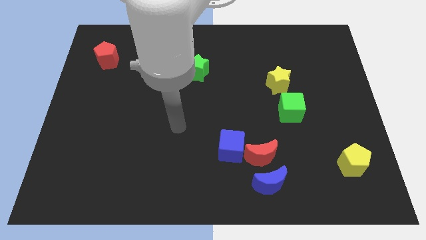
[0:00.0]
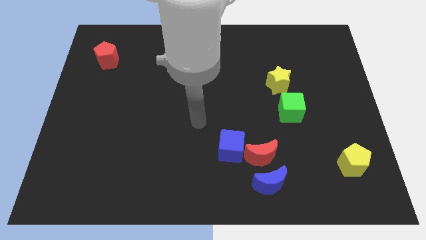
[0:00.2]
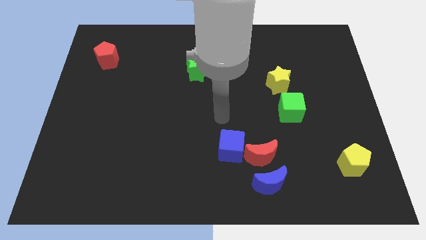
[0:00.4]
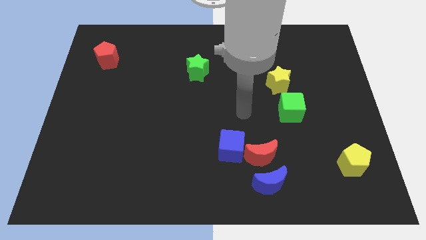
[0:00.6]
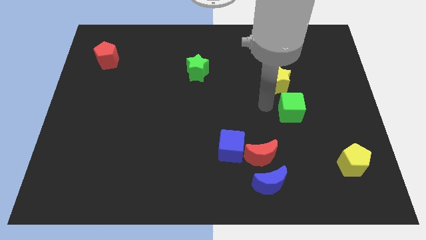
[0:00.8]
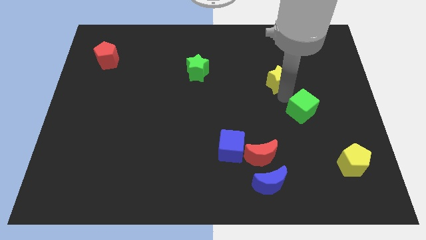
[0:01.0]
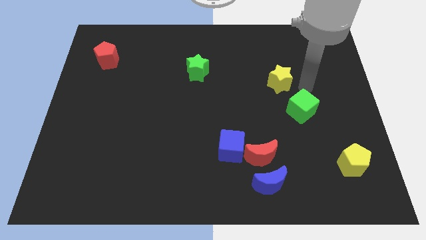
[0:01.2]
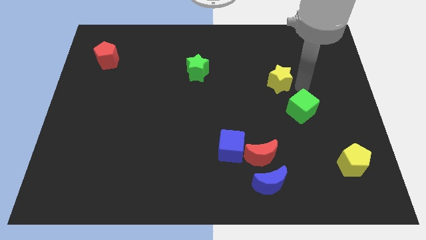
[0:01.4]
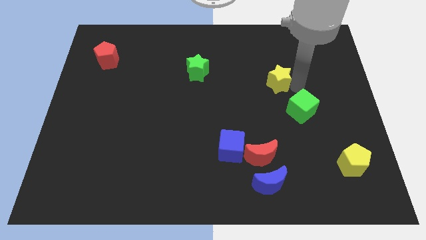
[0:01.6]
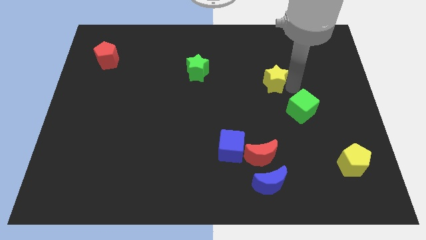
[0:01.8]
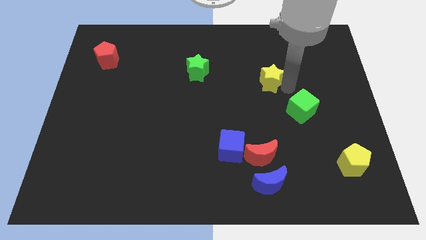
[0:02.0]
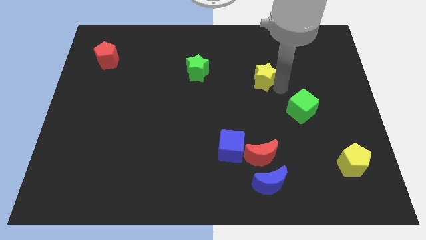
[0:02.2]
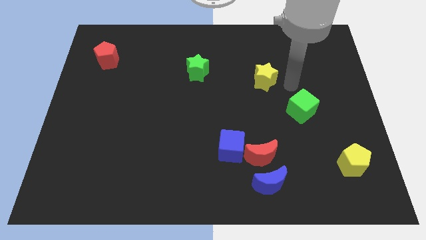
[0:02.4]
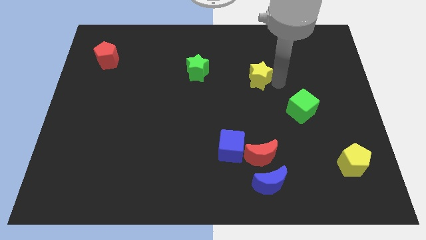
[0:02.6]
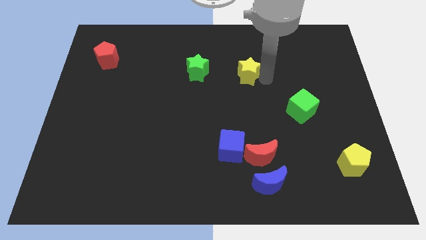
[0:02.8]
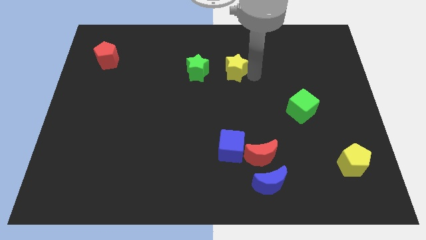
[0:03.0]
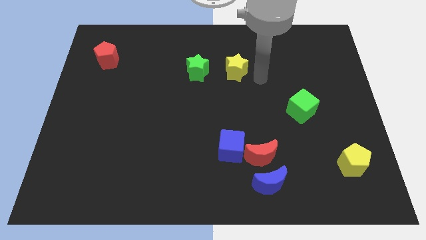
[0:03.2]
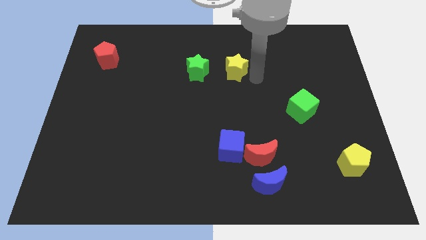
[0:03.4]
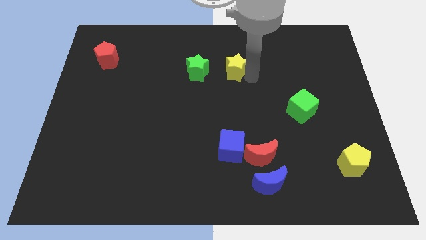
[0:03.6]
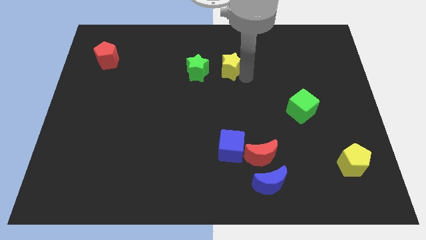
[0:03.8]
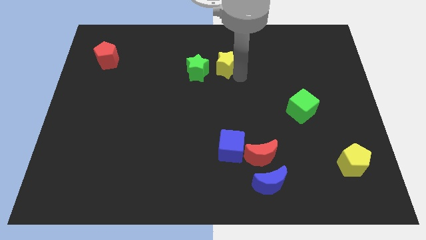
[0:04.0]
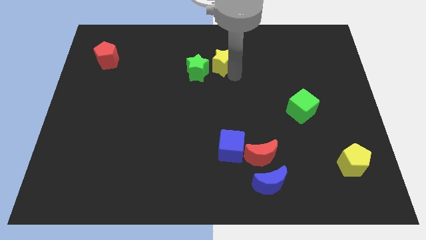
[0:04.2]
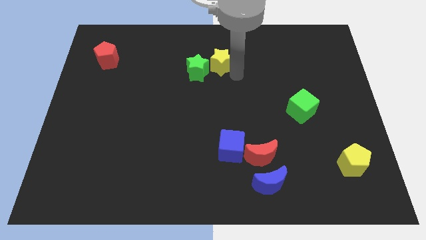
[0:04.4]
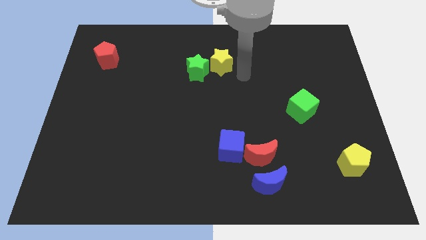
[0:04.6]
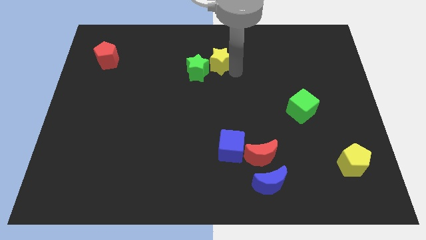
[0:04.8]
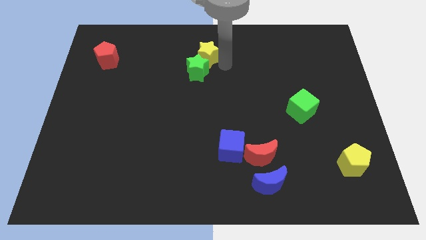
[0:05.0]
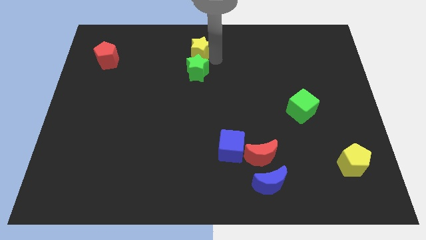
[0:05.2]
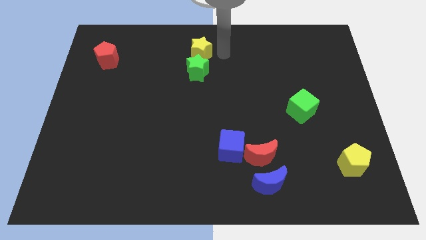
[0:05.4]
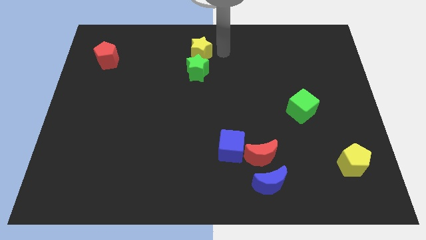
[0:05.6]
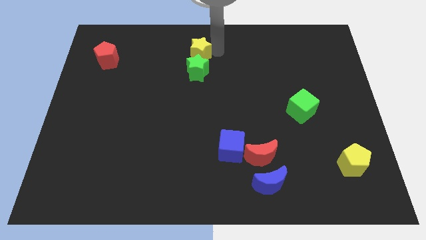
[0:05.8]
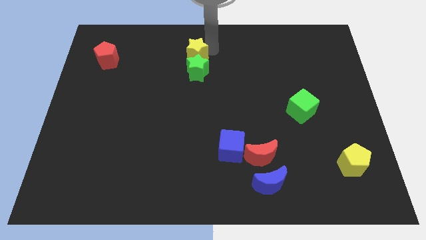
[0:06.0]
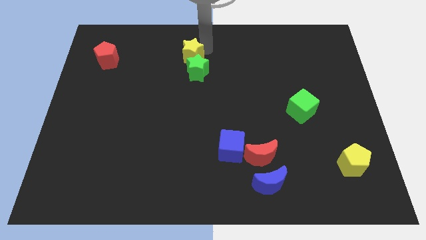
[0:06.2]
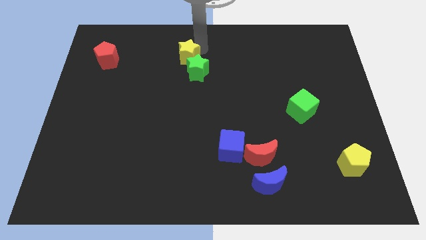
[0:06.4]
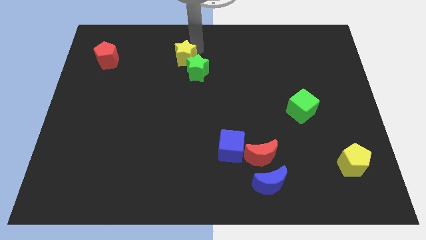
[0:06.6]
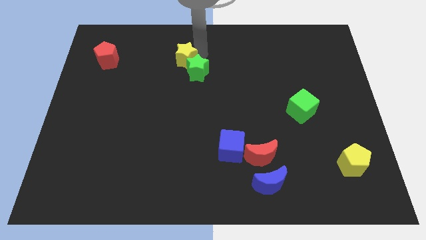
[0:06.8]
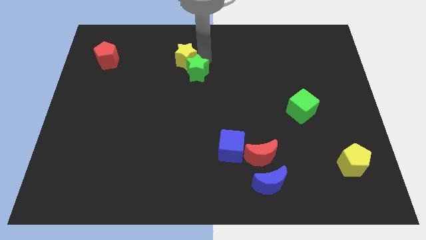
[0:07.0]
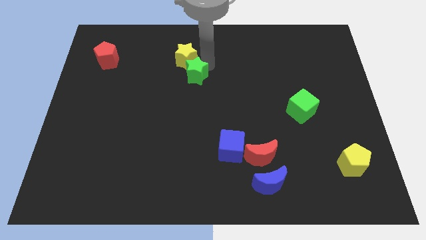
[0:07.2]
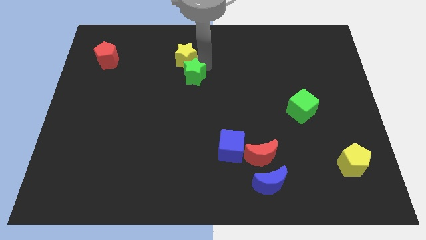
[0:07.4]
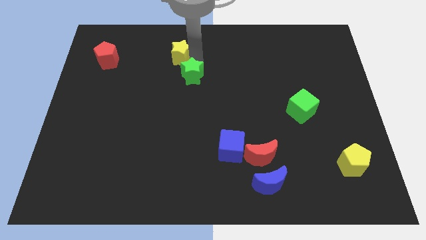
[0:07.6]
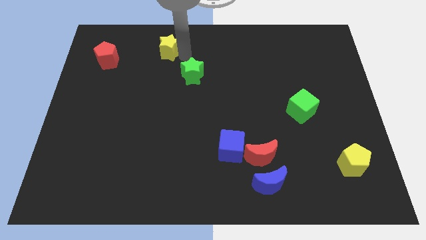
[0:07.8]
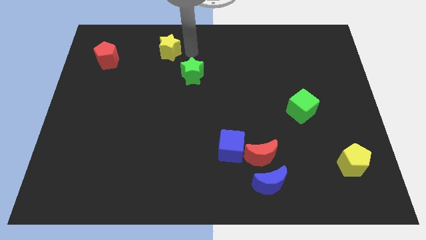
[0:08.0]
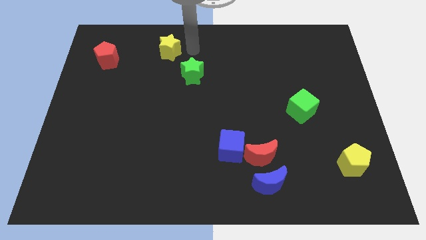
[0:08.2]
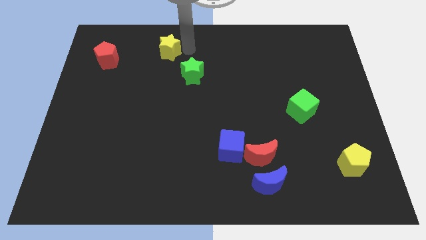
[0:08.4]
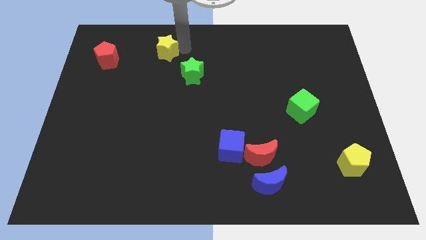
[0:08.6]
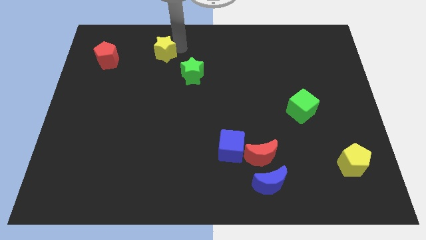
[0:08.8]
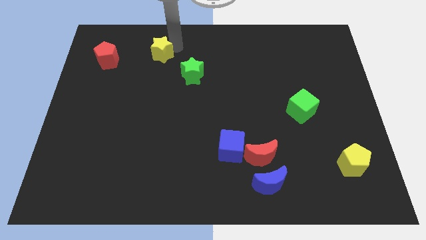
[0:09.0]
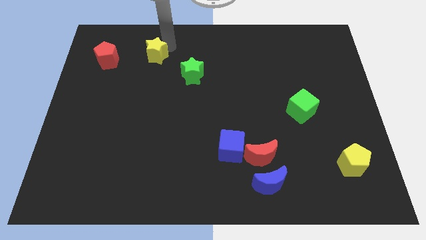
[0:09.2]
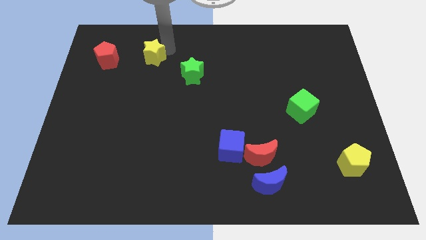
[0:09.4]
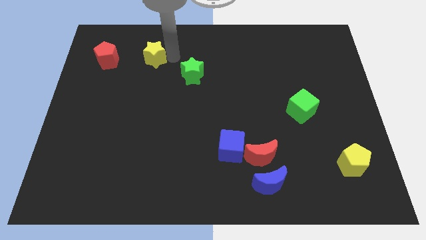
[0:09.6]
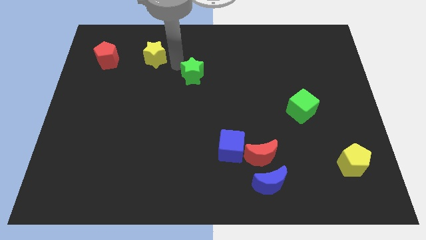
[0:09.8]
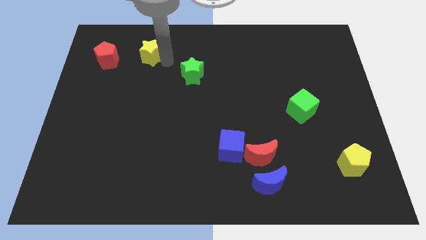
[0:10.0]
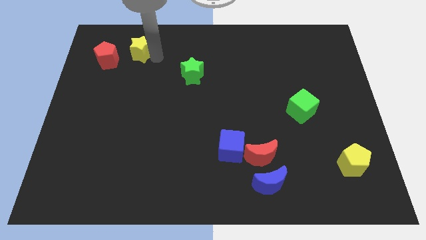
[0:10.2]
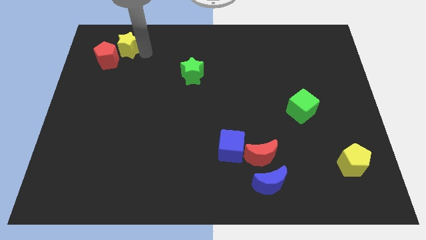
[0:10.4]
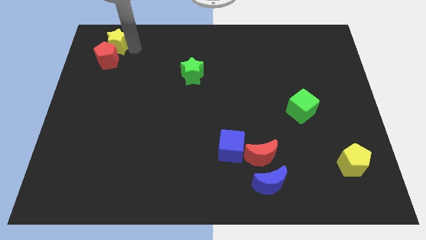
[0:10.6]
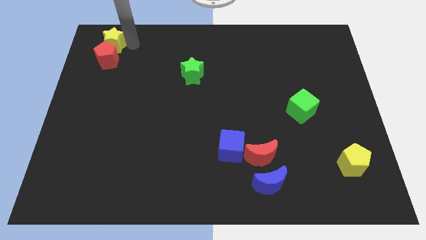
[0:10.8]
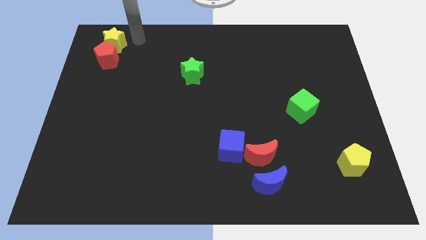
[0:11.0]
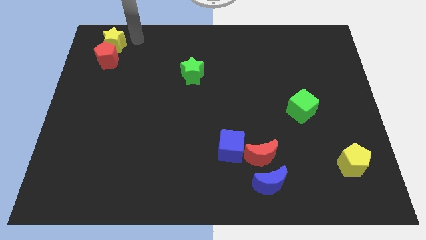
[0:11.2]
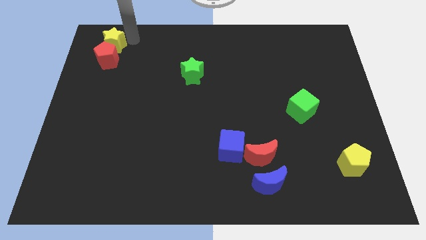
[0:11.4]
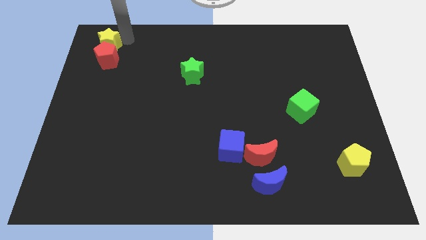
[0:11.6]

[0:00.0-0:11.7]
slide the yellow star to the top left
